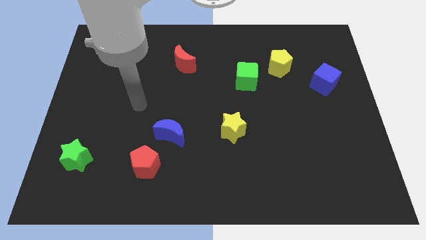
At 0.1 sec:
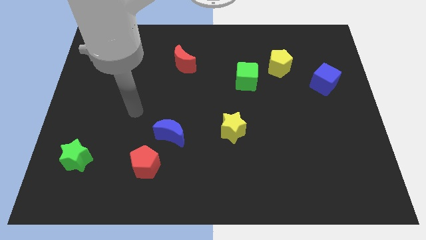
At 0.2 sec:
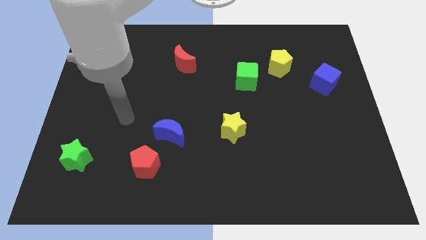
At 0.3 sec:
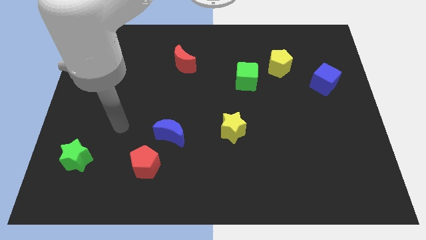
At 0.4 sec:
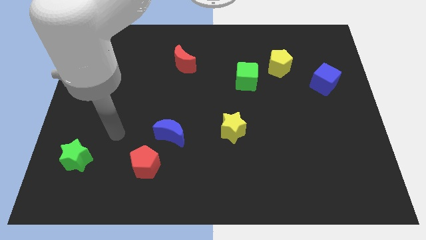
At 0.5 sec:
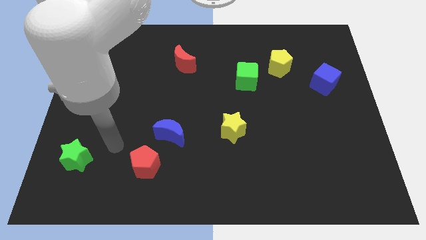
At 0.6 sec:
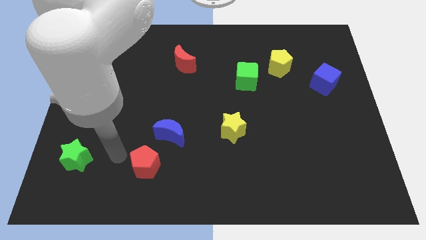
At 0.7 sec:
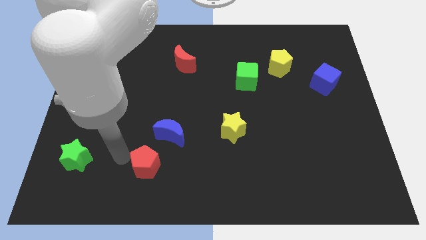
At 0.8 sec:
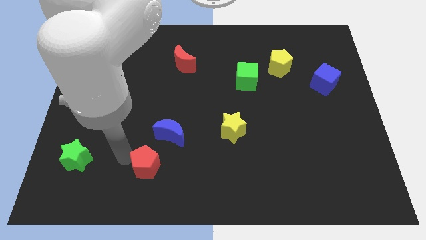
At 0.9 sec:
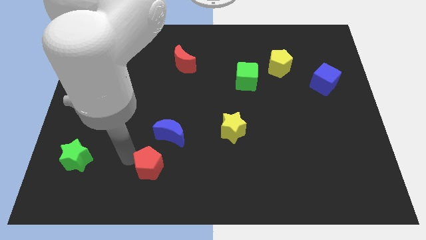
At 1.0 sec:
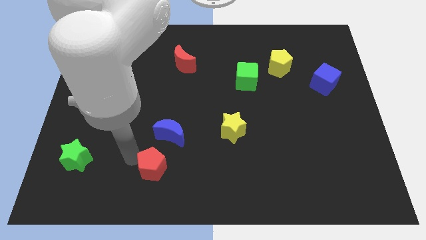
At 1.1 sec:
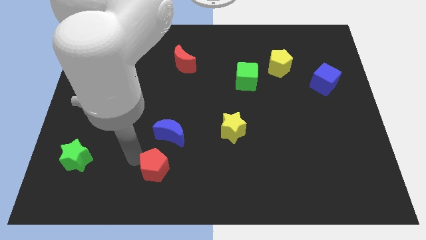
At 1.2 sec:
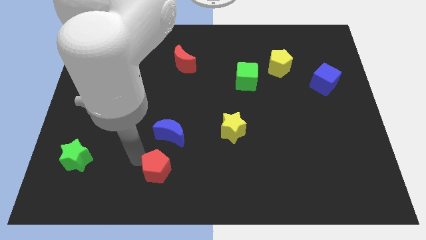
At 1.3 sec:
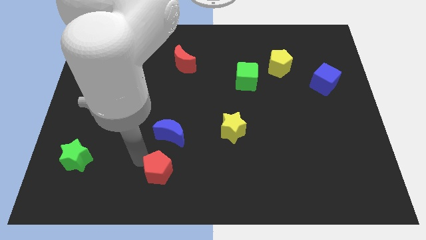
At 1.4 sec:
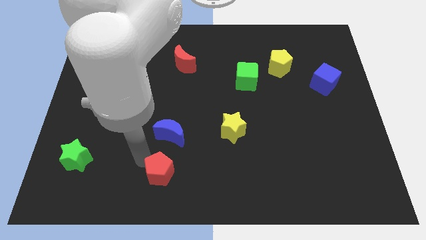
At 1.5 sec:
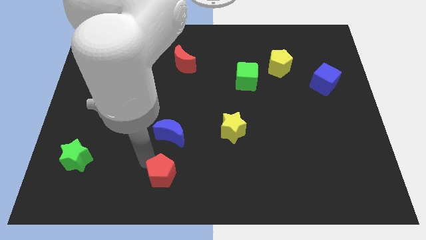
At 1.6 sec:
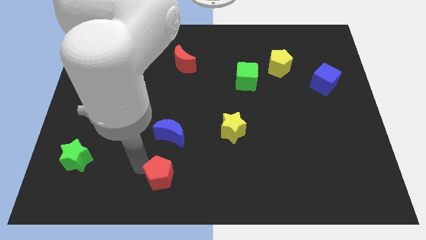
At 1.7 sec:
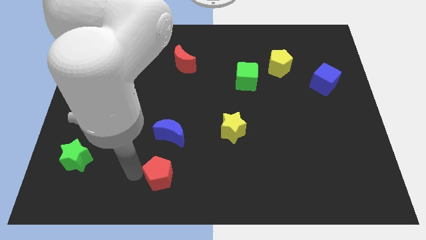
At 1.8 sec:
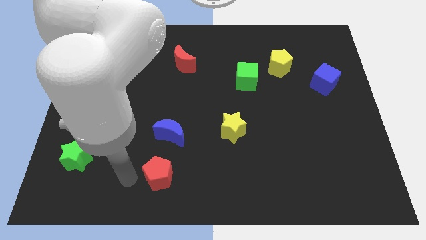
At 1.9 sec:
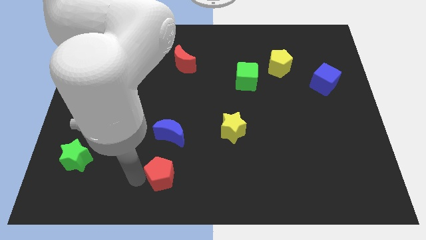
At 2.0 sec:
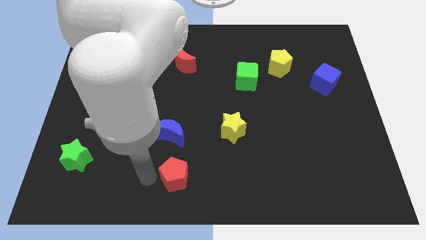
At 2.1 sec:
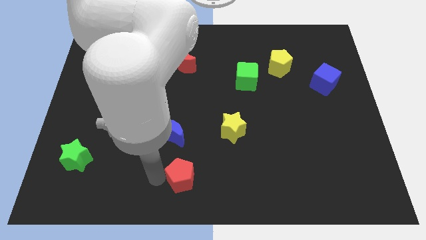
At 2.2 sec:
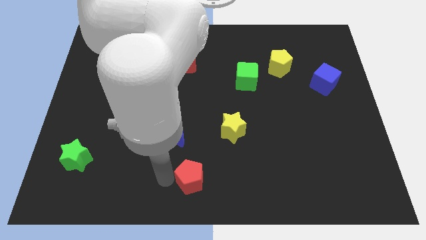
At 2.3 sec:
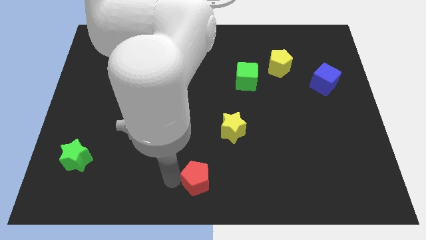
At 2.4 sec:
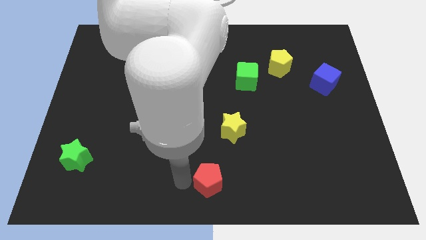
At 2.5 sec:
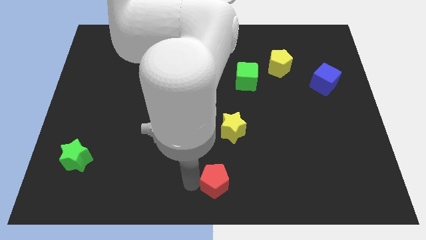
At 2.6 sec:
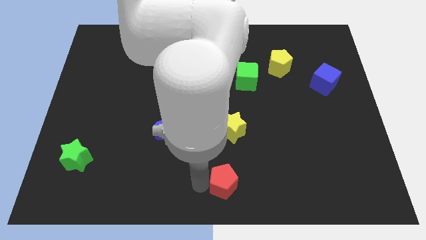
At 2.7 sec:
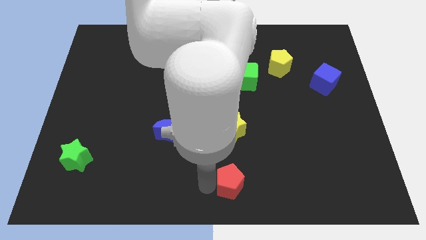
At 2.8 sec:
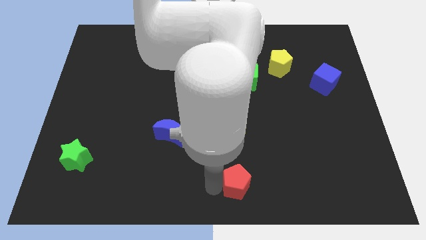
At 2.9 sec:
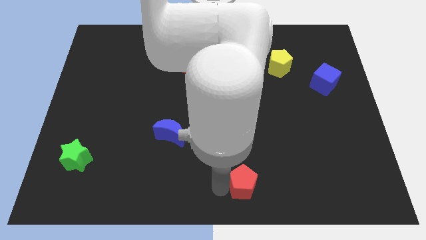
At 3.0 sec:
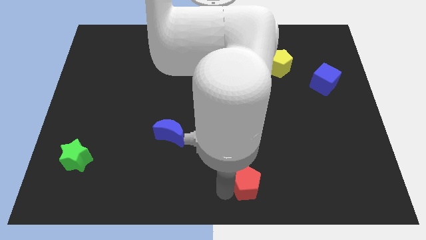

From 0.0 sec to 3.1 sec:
slide the red pentagon right

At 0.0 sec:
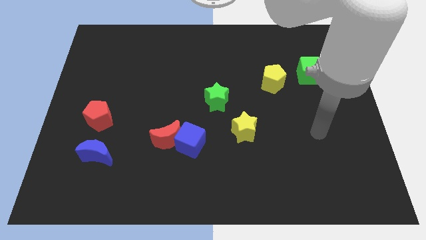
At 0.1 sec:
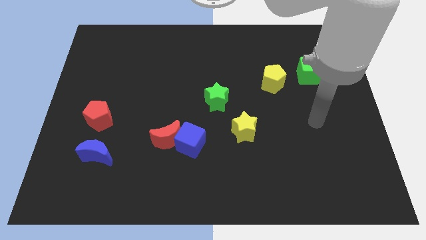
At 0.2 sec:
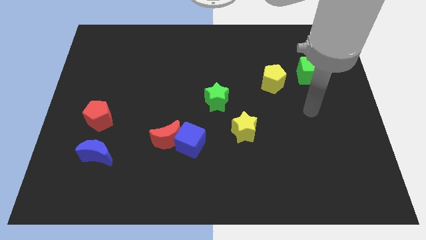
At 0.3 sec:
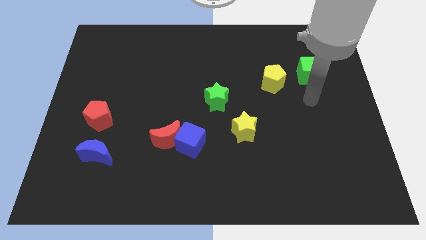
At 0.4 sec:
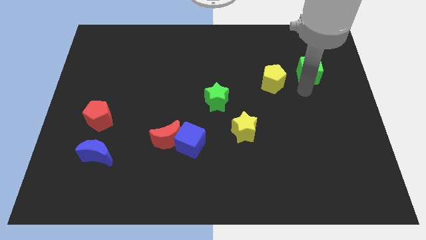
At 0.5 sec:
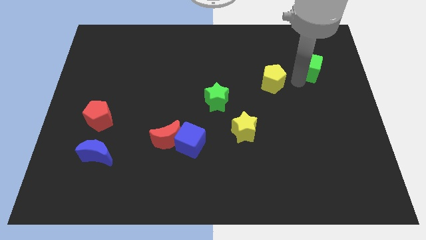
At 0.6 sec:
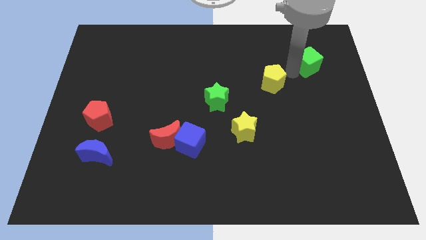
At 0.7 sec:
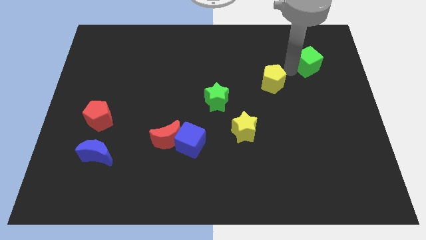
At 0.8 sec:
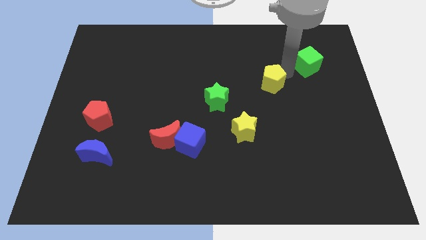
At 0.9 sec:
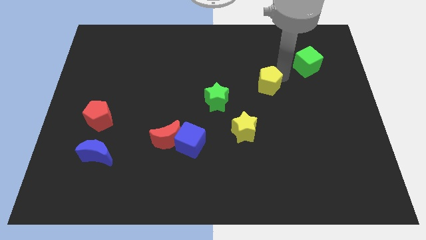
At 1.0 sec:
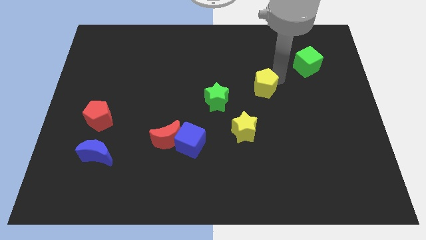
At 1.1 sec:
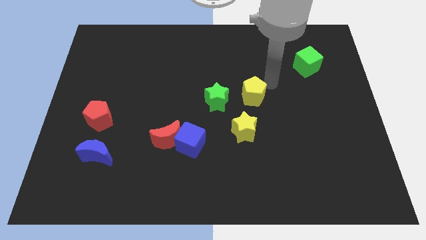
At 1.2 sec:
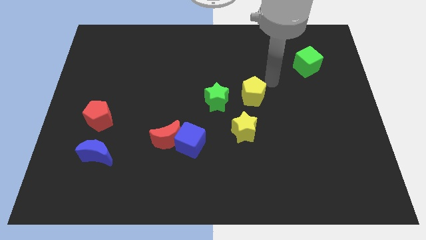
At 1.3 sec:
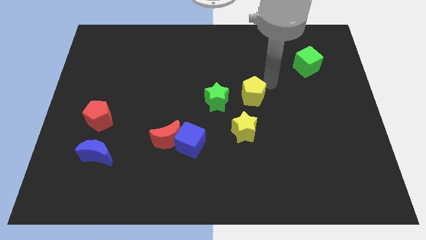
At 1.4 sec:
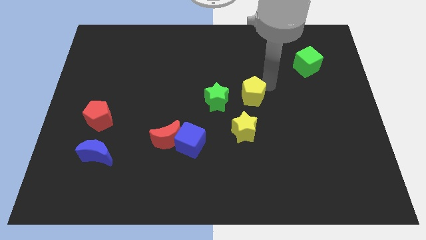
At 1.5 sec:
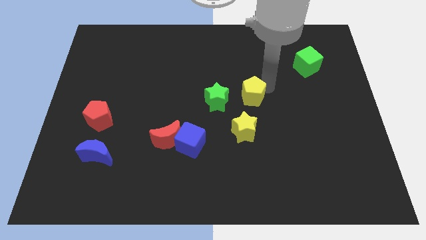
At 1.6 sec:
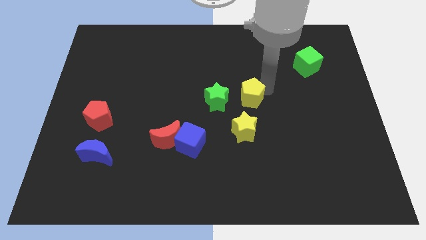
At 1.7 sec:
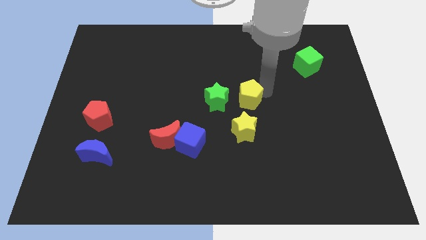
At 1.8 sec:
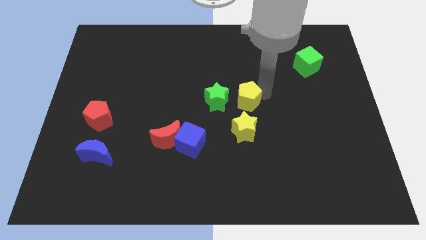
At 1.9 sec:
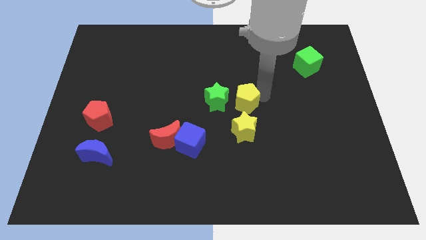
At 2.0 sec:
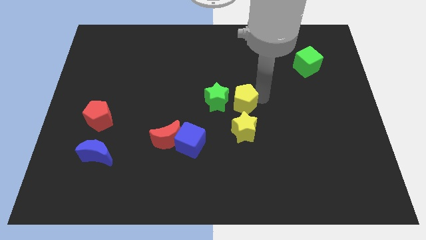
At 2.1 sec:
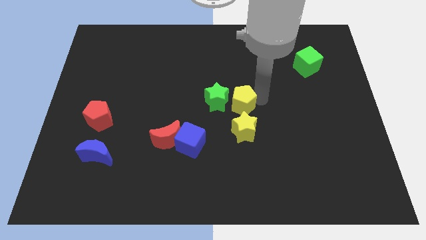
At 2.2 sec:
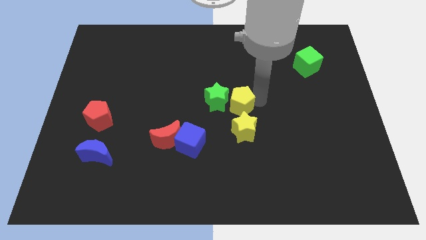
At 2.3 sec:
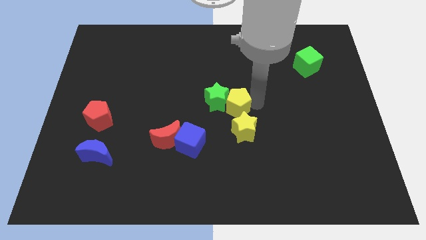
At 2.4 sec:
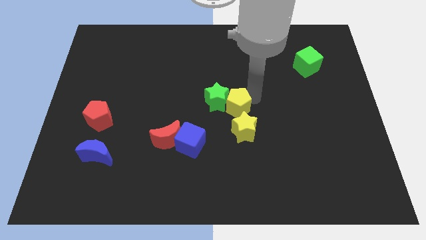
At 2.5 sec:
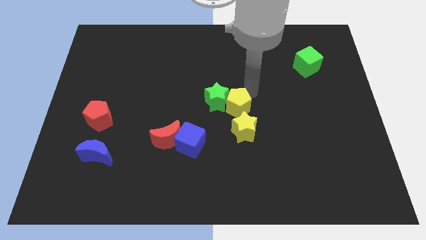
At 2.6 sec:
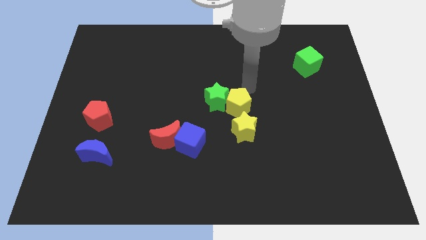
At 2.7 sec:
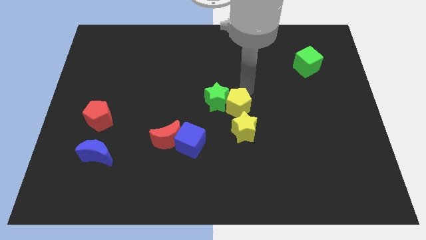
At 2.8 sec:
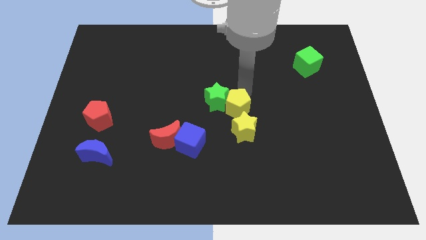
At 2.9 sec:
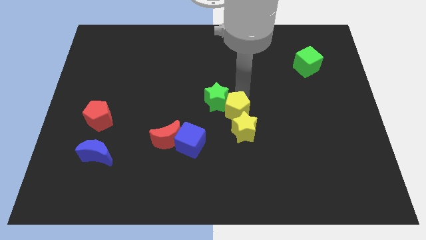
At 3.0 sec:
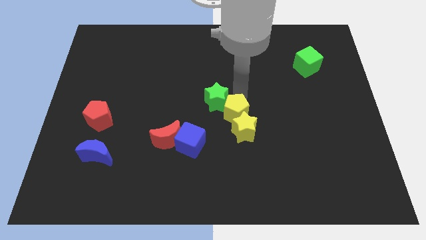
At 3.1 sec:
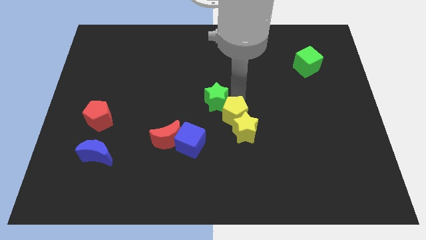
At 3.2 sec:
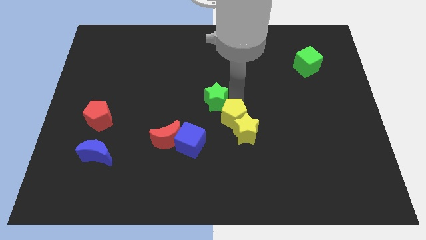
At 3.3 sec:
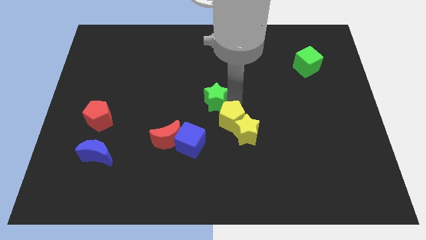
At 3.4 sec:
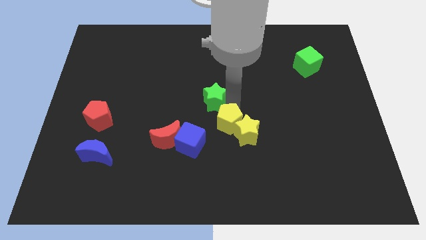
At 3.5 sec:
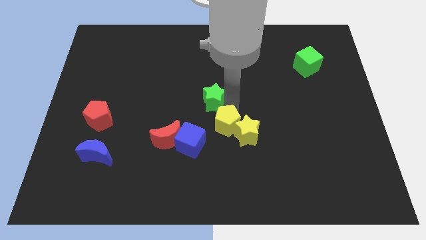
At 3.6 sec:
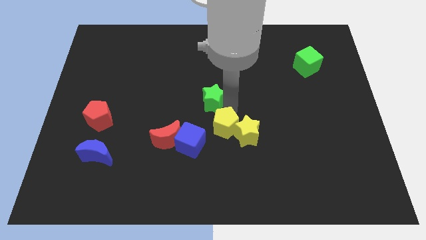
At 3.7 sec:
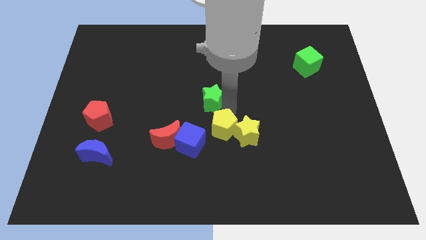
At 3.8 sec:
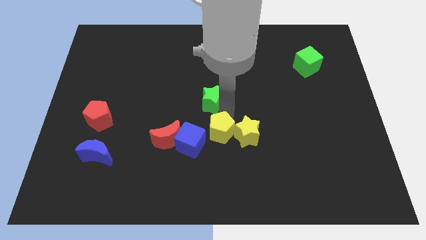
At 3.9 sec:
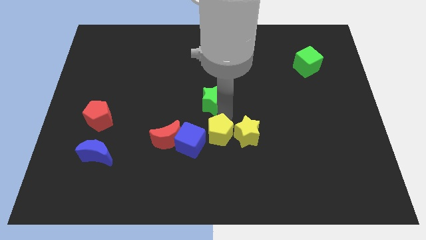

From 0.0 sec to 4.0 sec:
move the yellow pentagon down and left diagonally

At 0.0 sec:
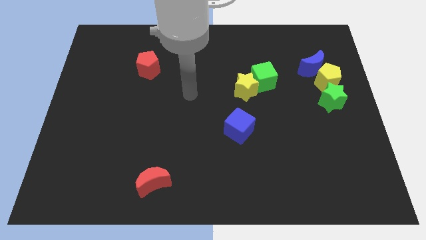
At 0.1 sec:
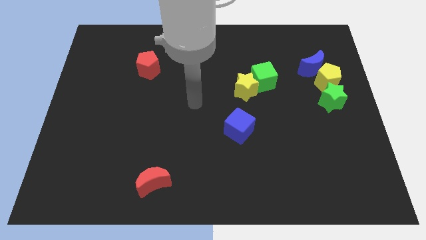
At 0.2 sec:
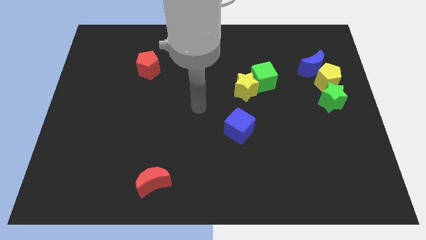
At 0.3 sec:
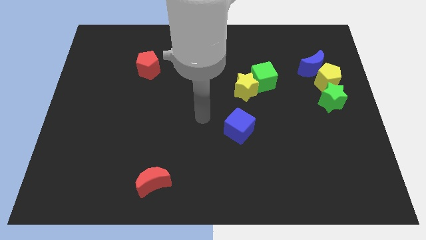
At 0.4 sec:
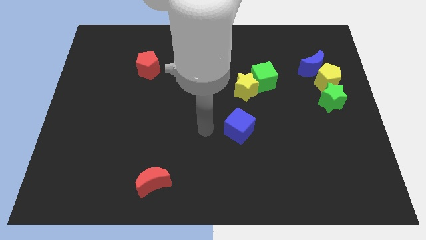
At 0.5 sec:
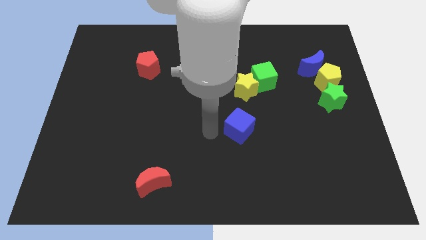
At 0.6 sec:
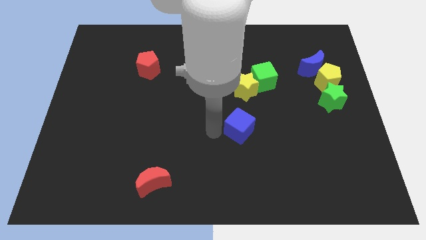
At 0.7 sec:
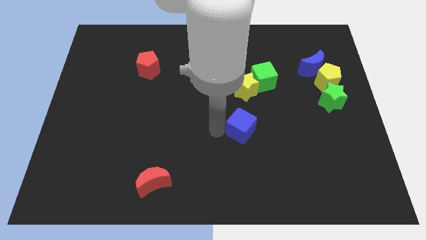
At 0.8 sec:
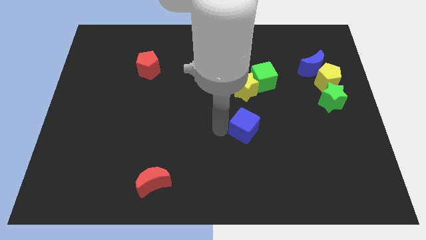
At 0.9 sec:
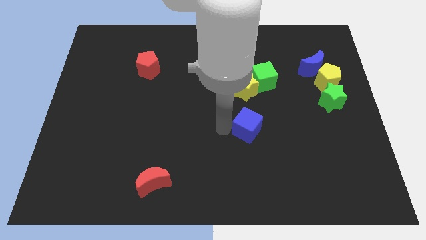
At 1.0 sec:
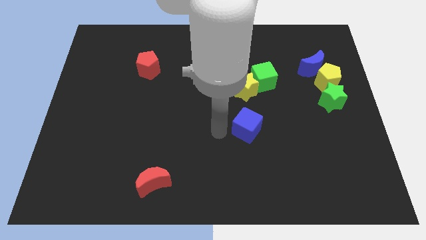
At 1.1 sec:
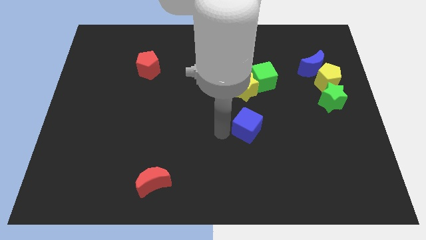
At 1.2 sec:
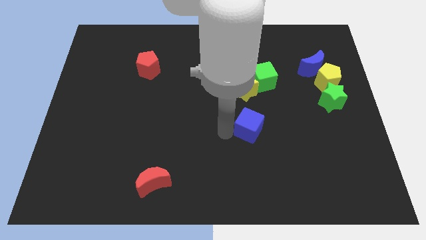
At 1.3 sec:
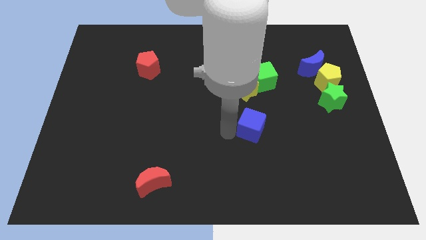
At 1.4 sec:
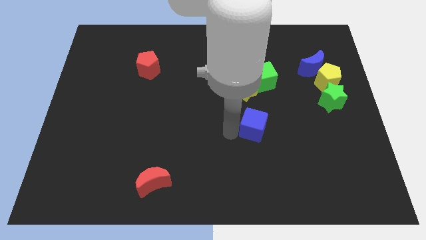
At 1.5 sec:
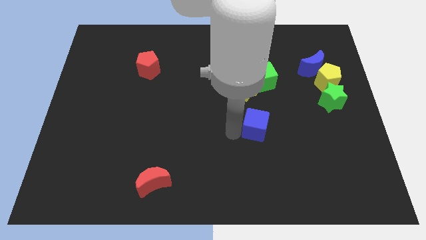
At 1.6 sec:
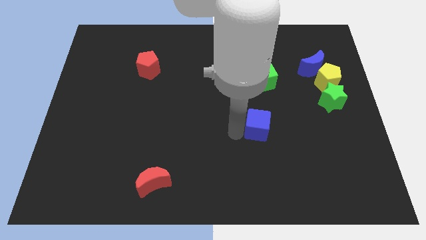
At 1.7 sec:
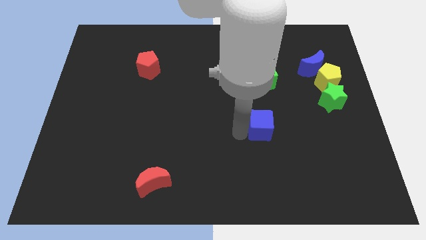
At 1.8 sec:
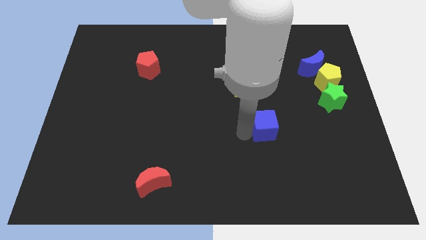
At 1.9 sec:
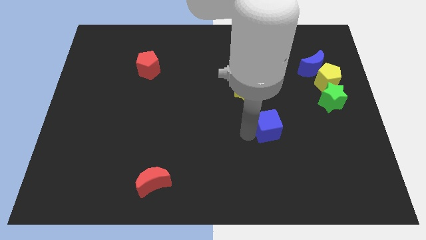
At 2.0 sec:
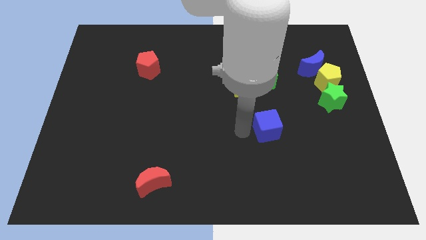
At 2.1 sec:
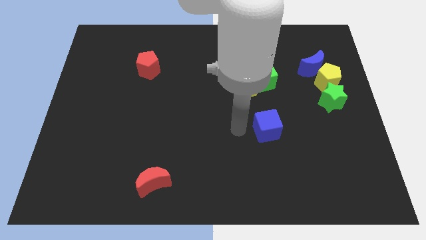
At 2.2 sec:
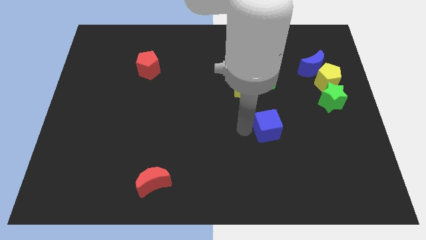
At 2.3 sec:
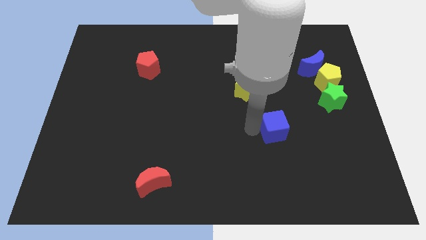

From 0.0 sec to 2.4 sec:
slide the blue cube slightly to the right
